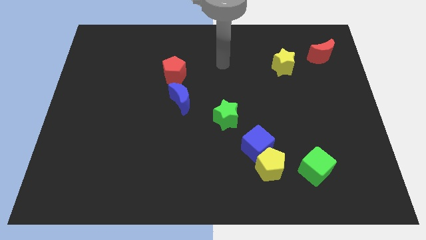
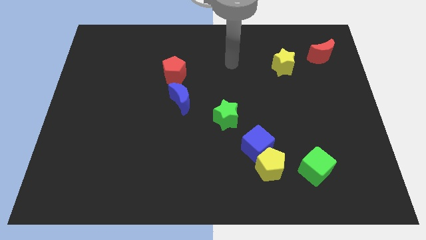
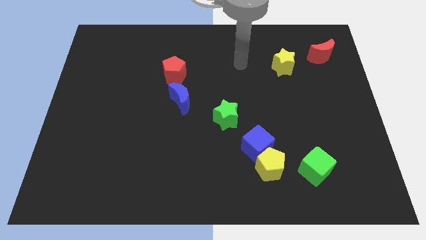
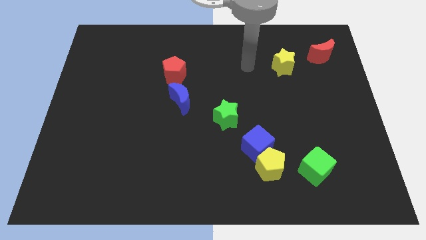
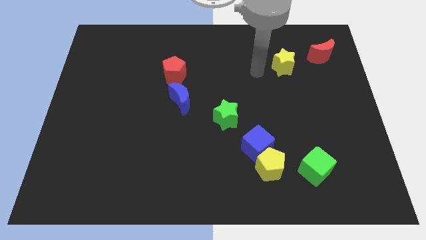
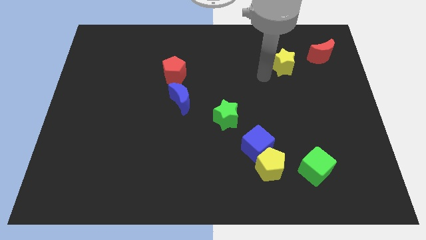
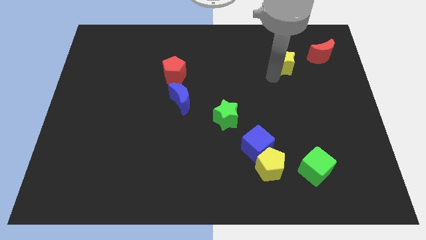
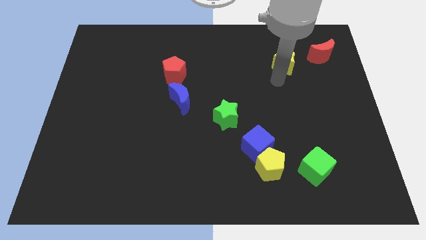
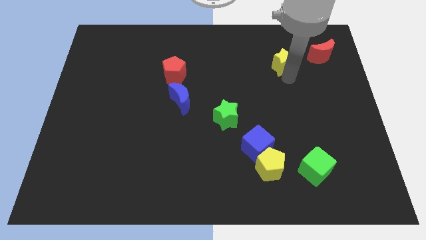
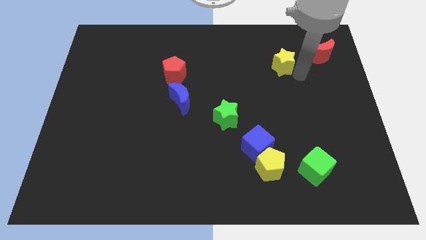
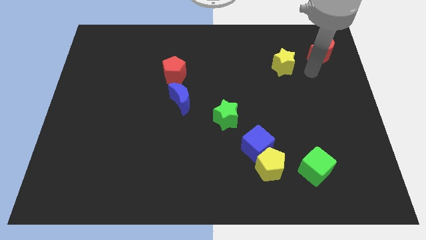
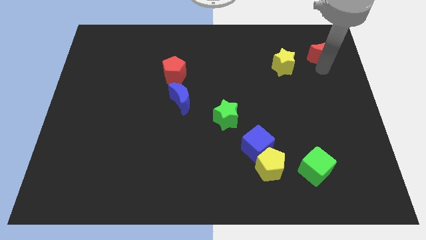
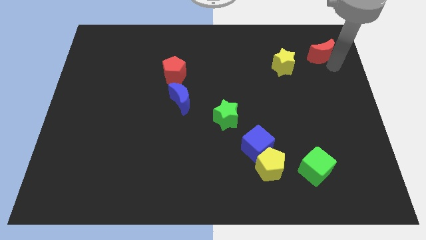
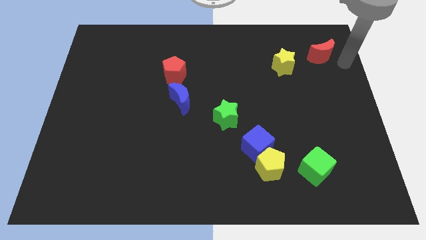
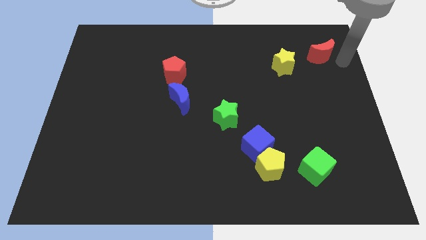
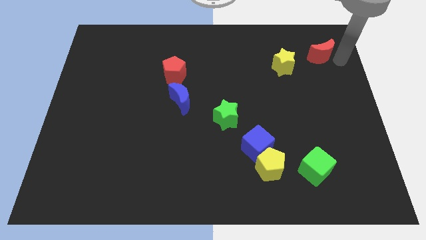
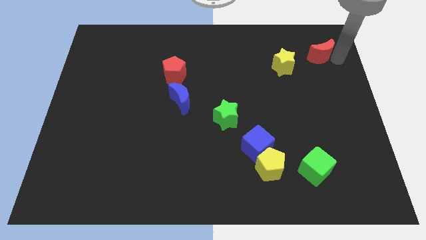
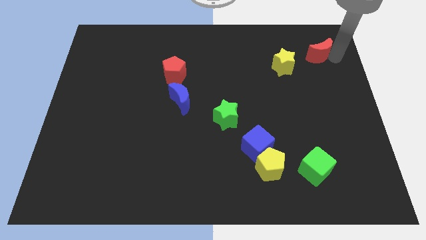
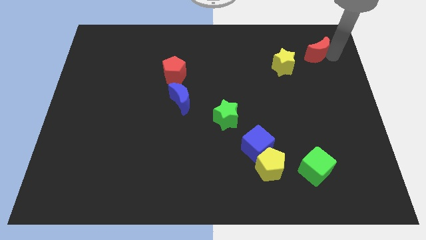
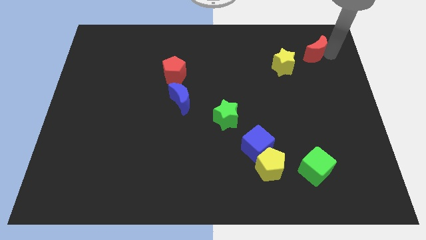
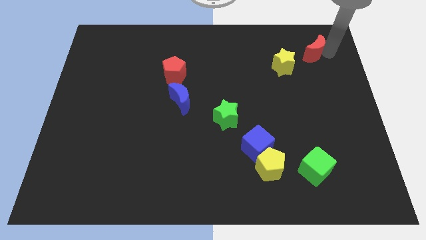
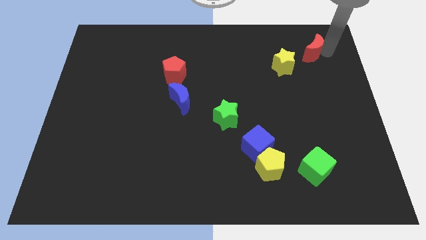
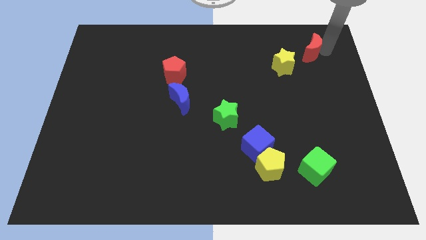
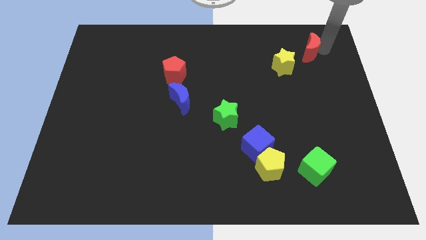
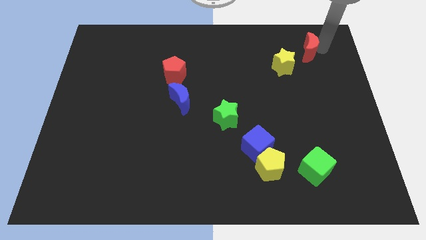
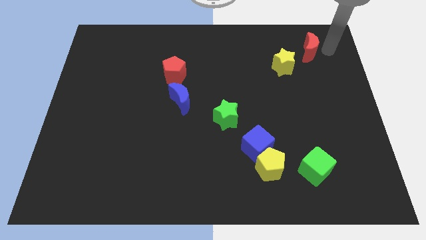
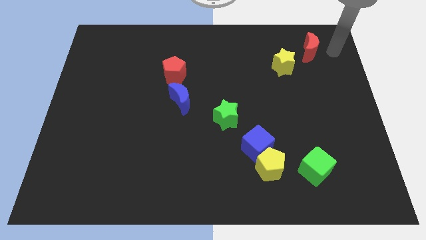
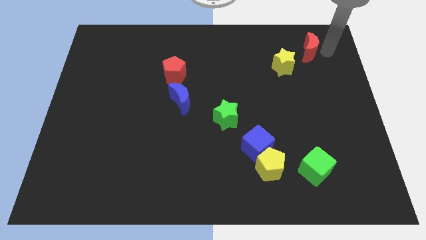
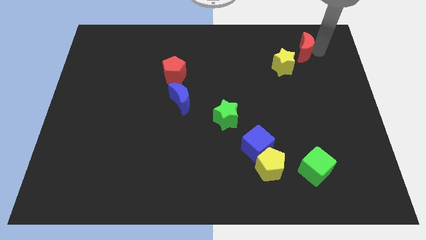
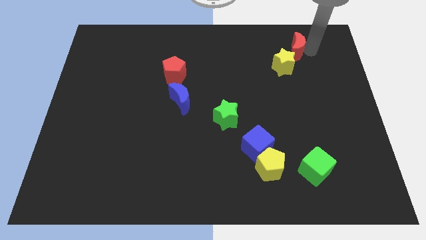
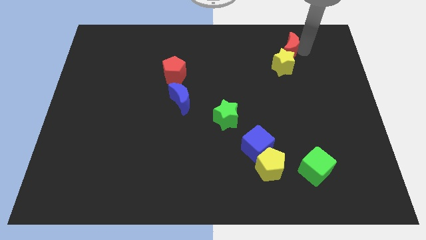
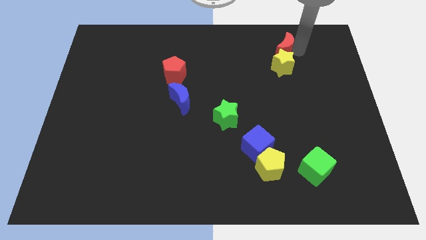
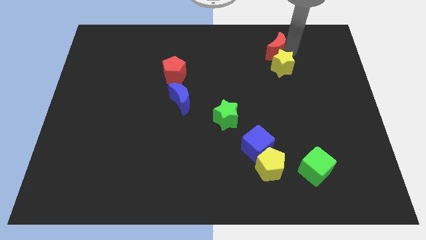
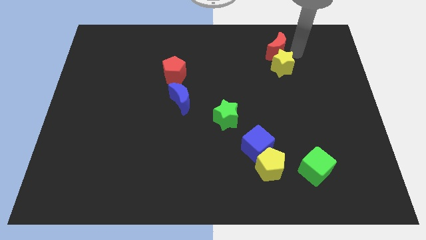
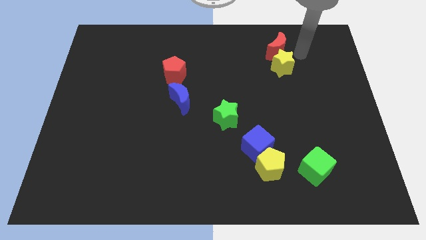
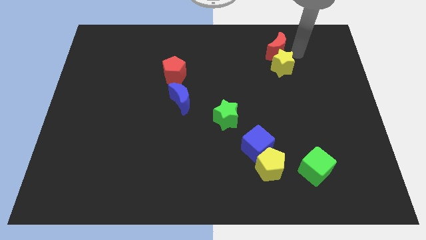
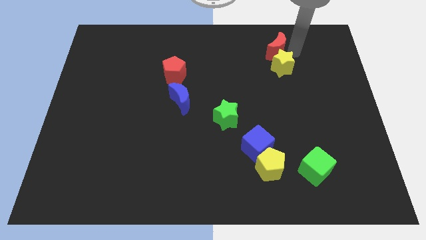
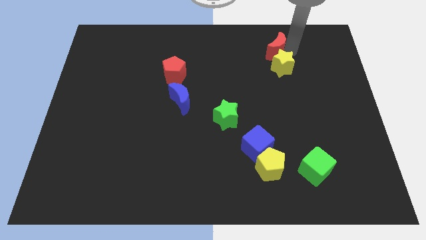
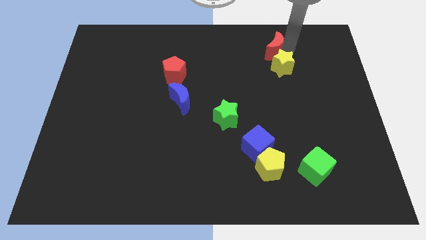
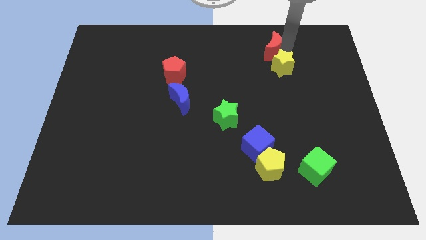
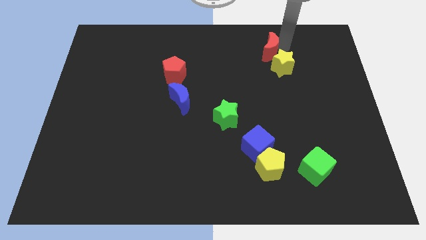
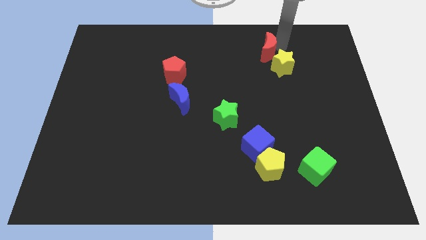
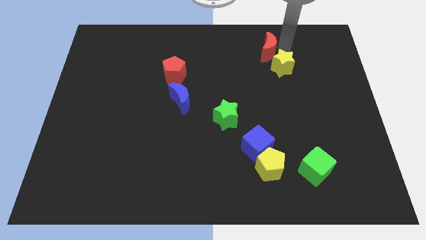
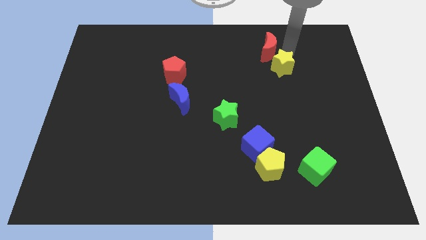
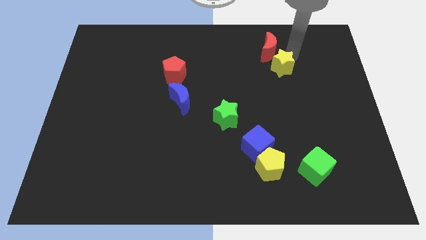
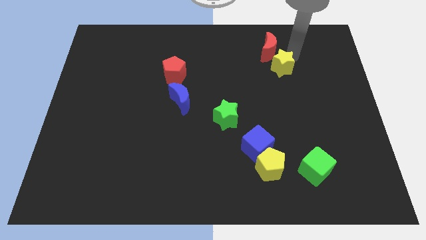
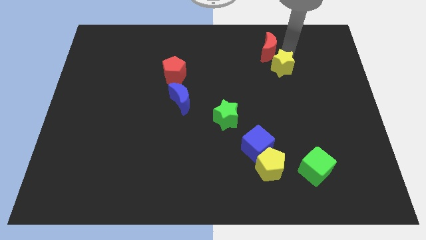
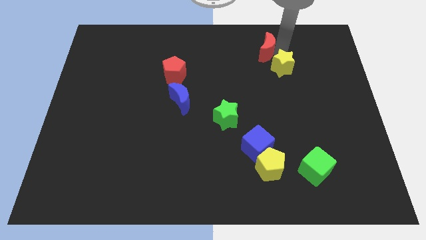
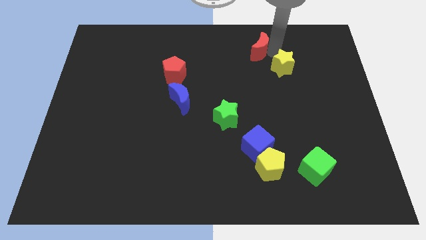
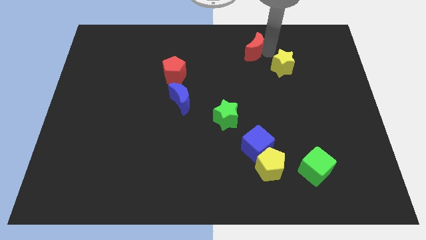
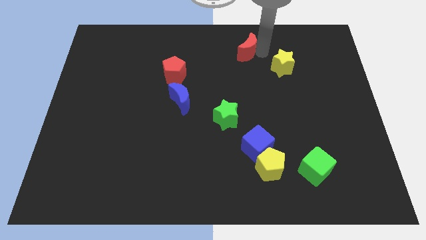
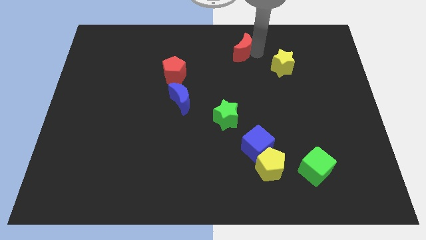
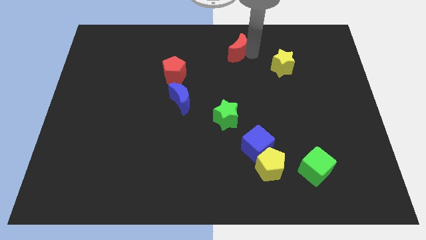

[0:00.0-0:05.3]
slide the red moon to the top side

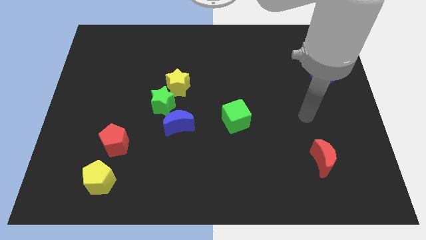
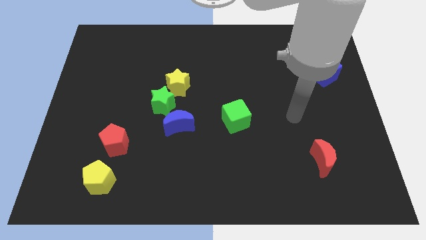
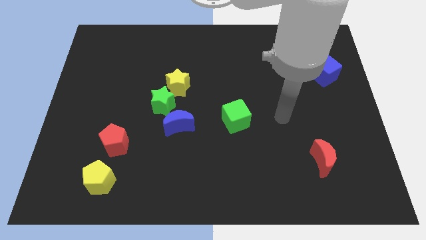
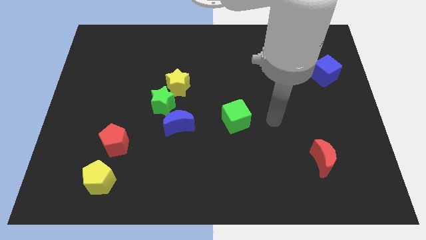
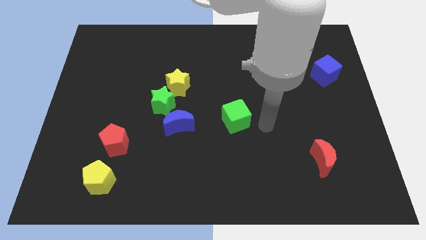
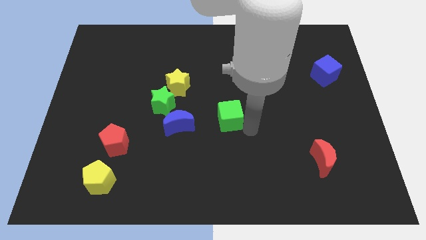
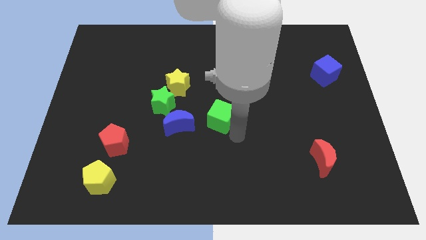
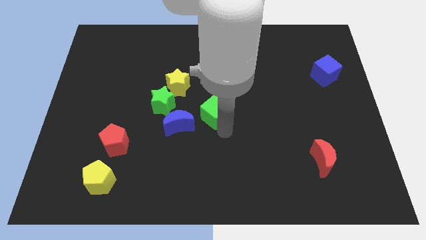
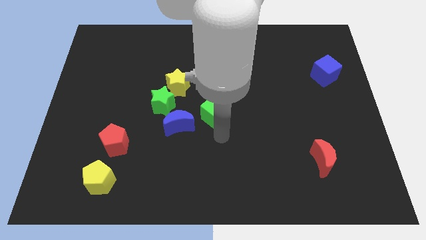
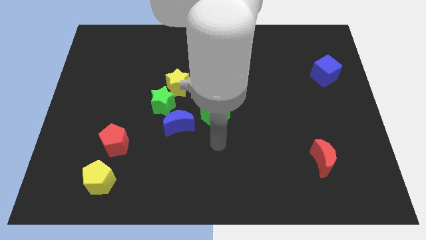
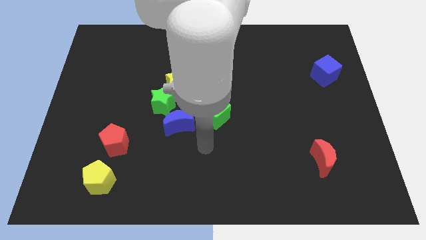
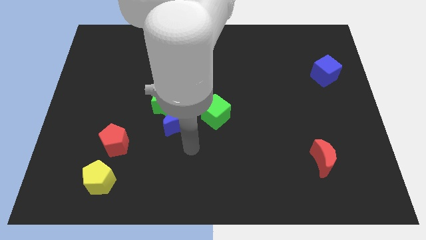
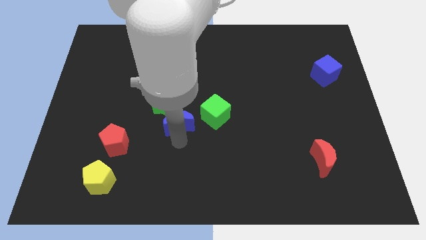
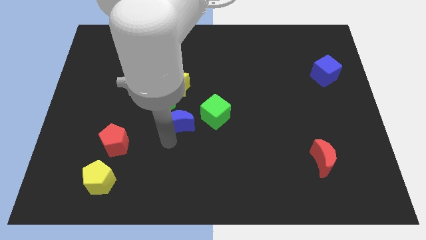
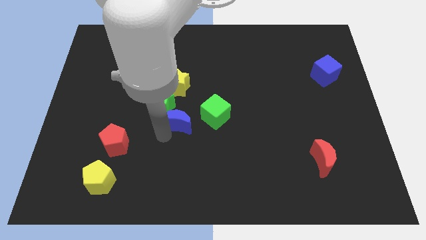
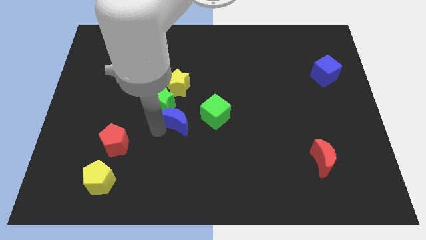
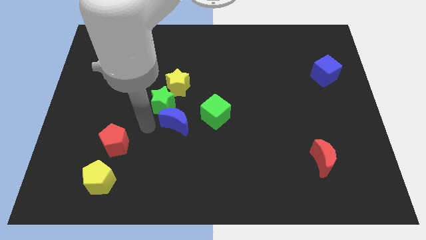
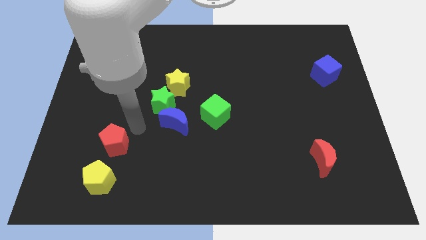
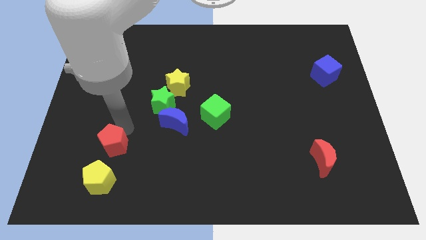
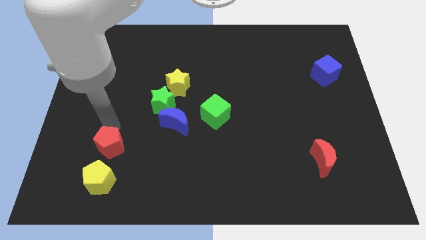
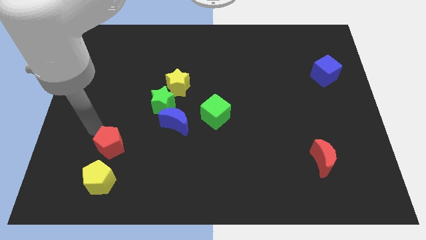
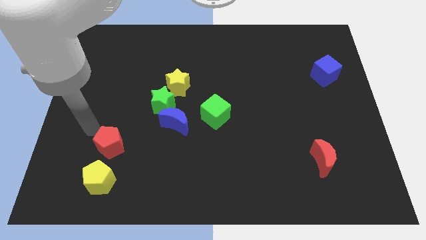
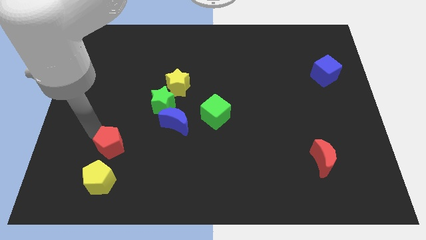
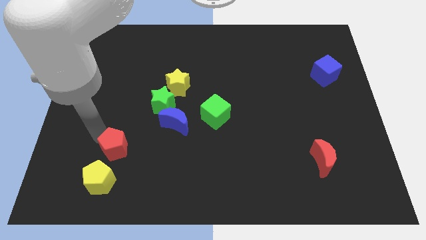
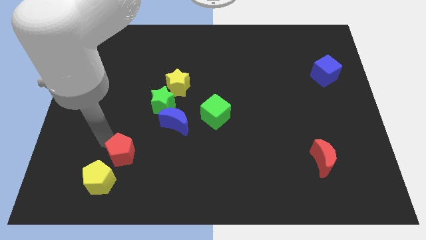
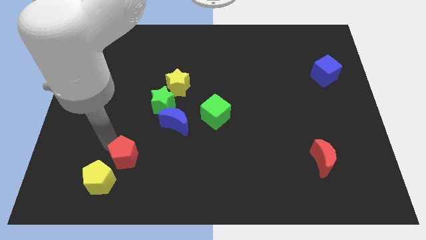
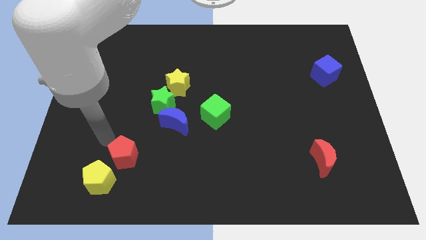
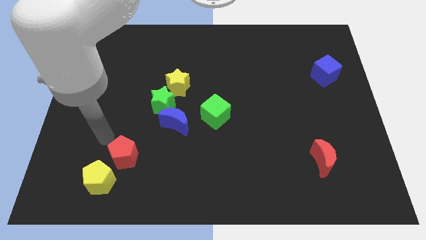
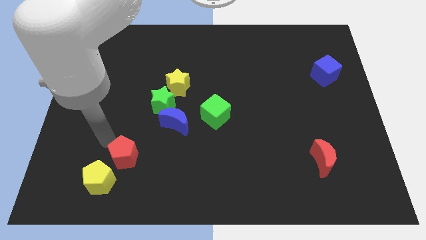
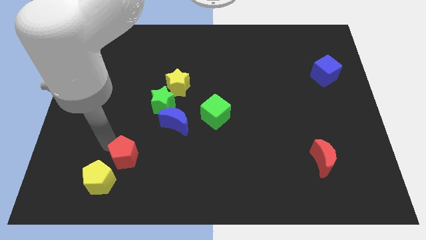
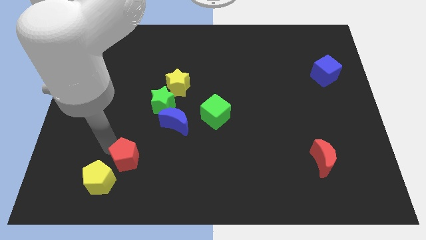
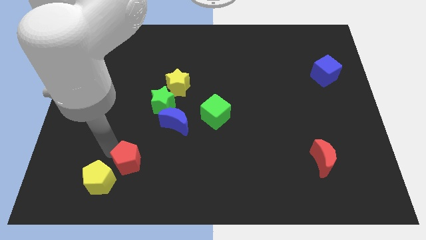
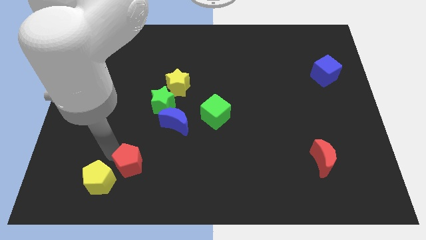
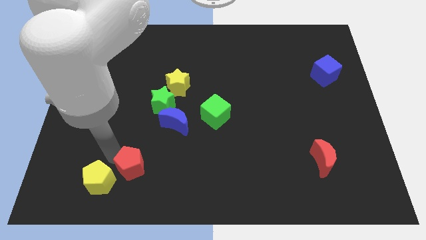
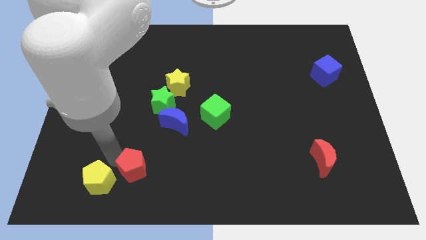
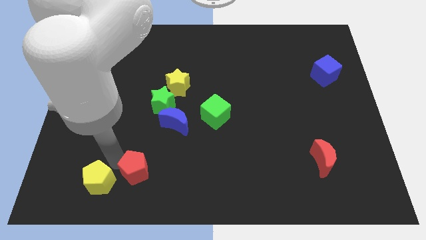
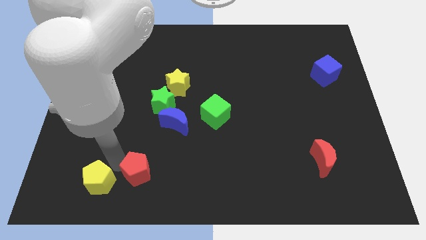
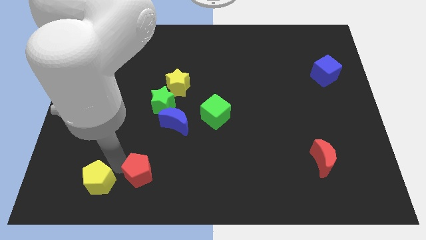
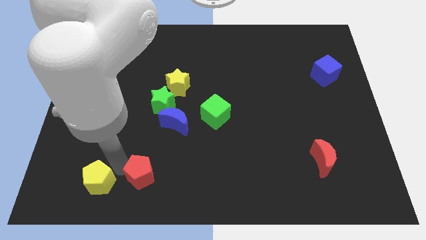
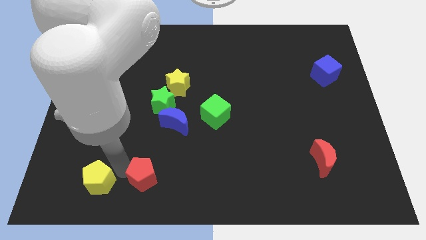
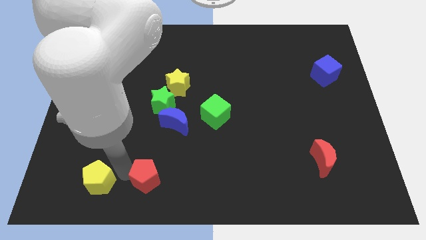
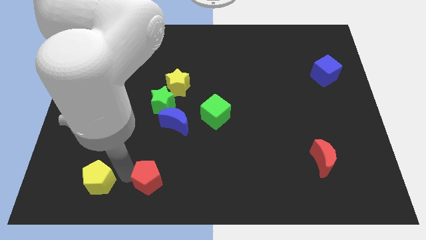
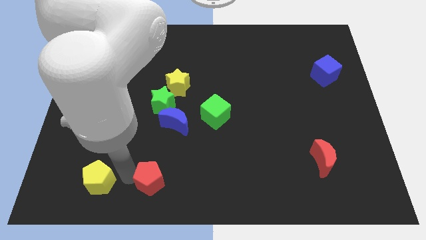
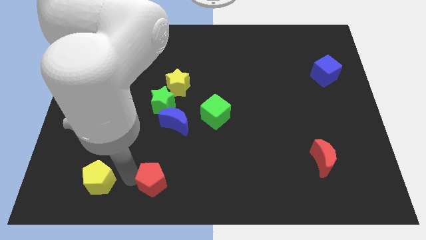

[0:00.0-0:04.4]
push the red pentagon to the bottom side
